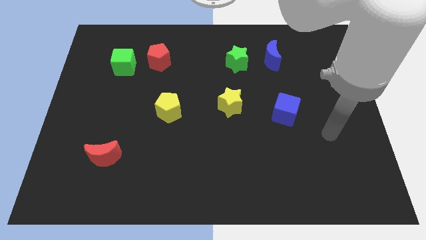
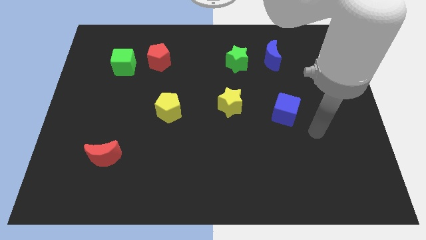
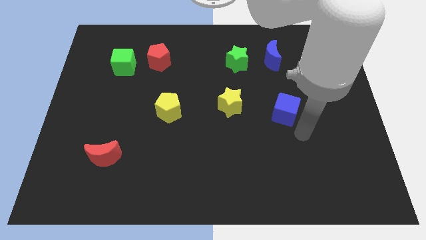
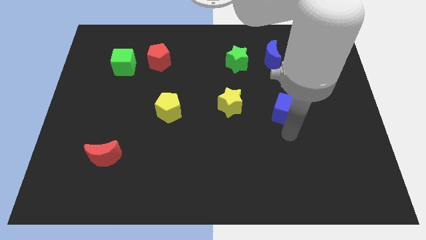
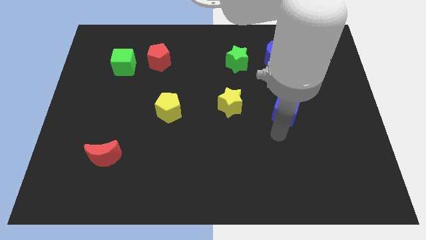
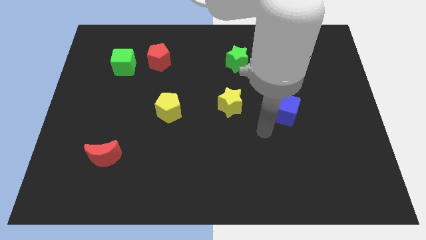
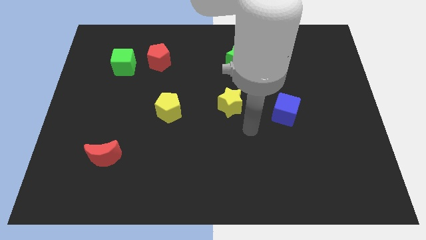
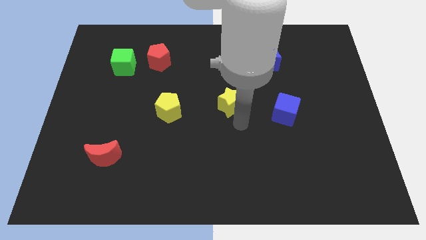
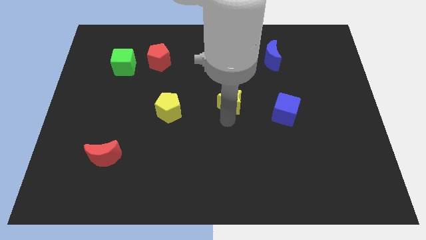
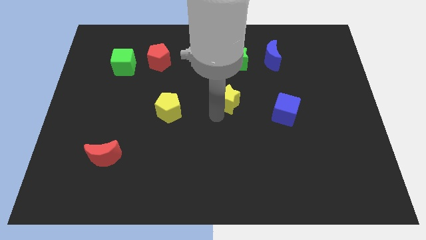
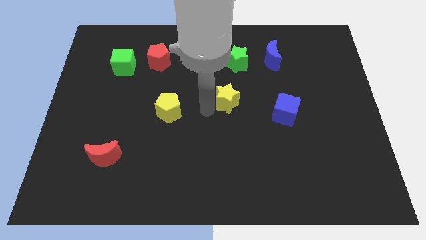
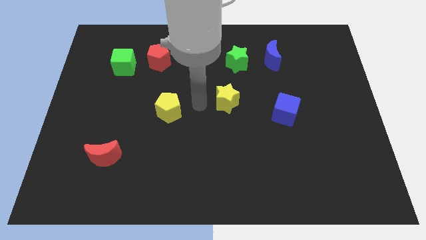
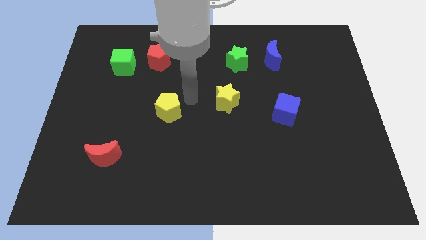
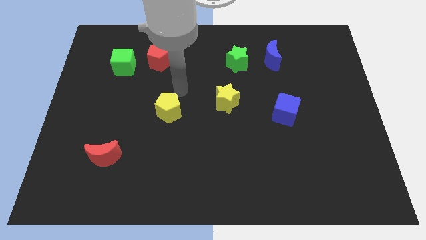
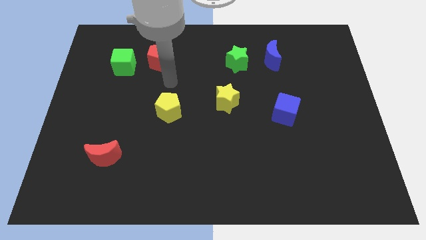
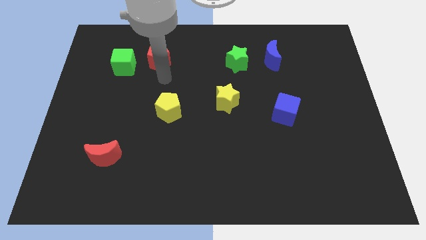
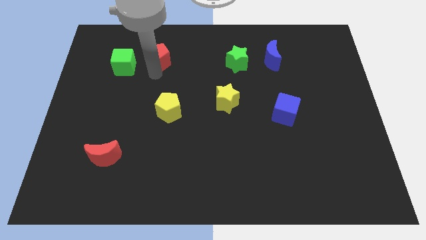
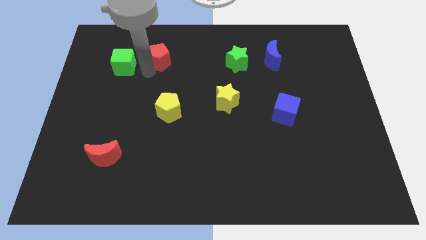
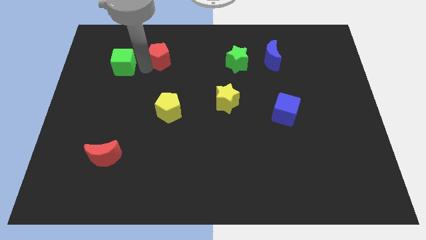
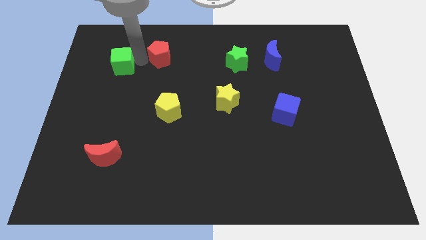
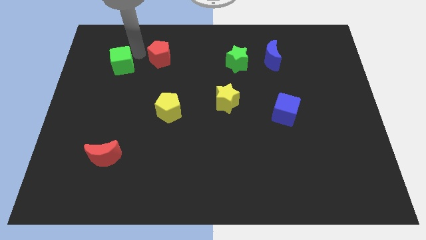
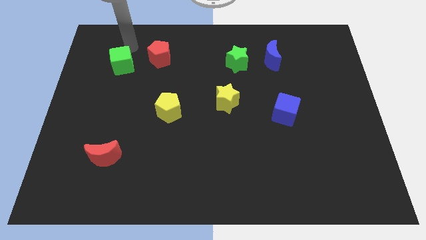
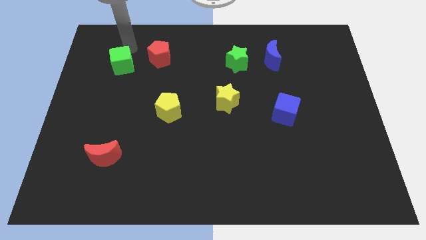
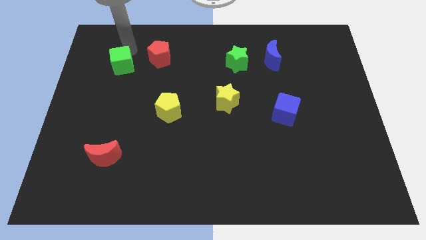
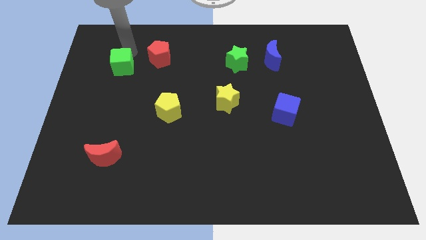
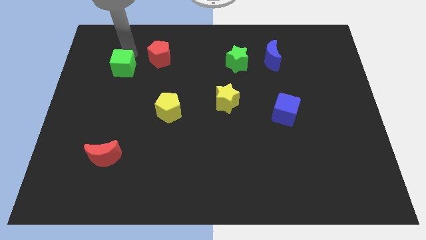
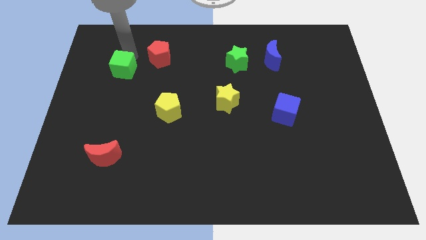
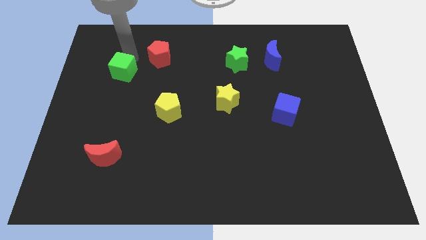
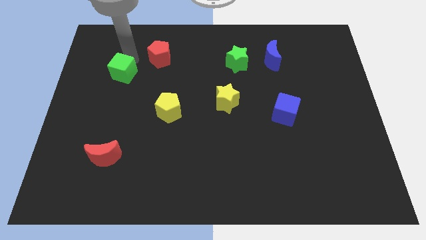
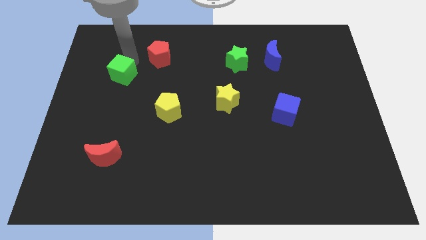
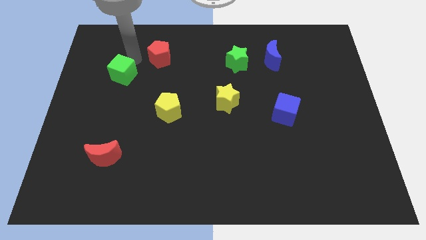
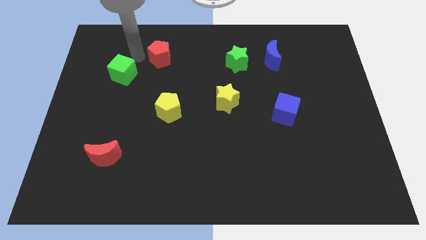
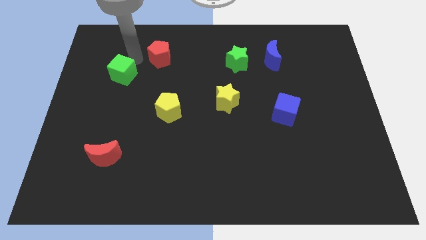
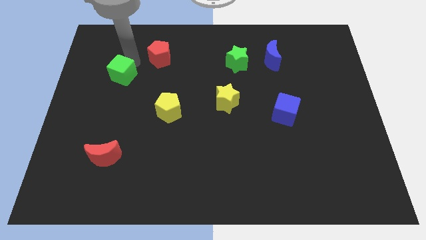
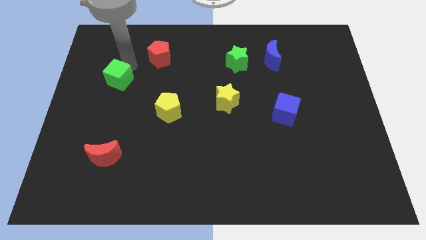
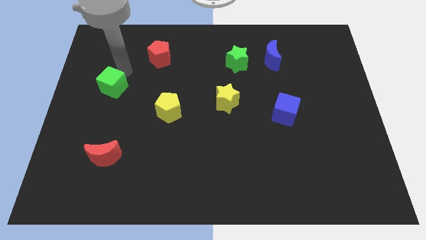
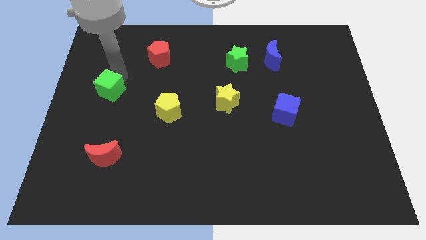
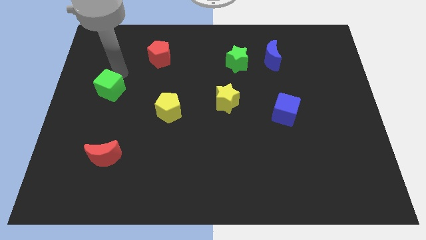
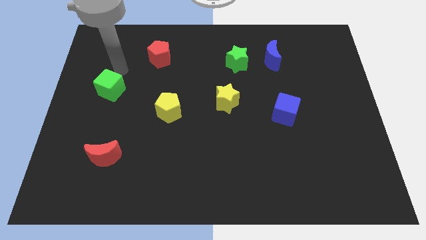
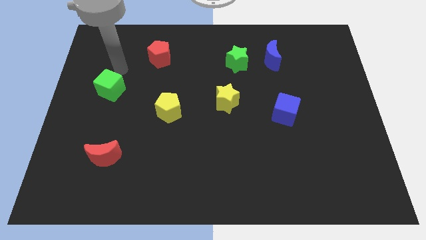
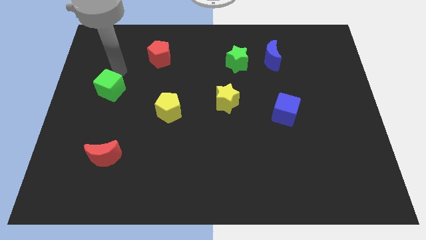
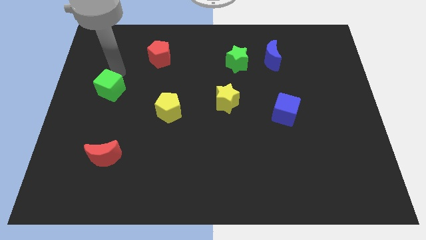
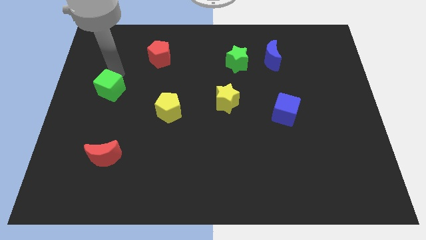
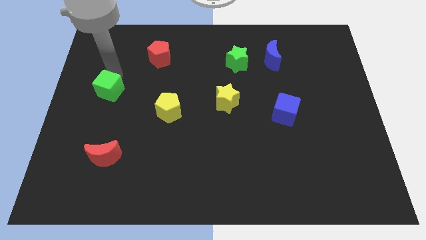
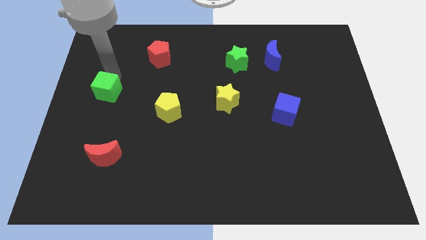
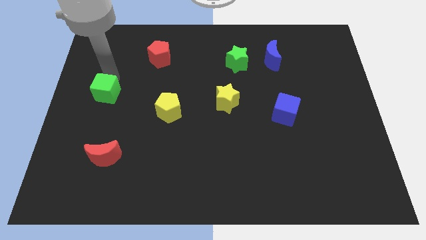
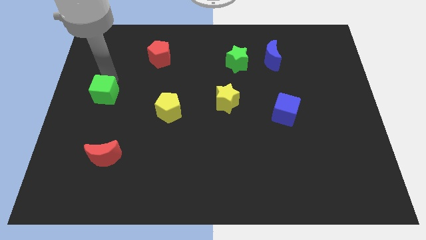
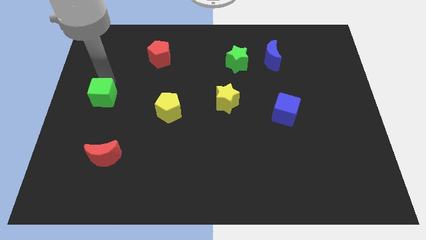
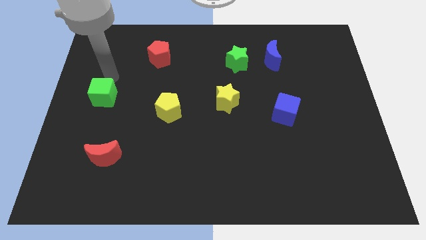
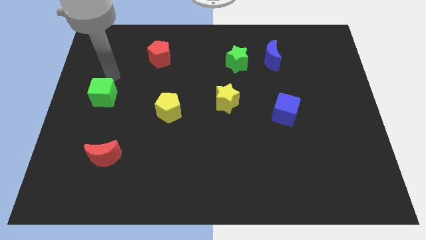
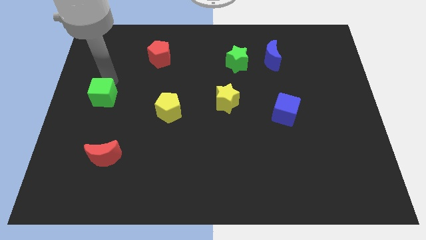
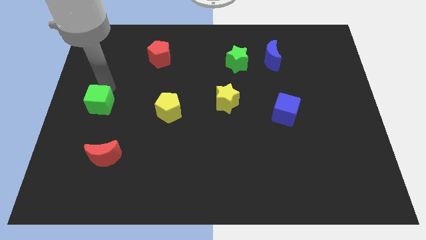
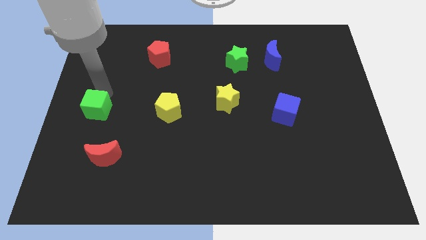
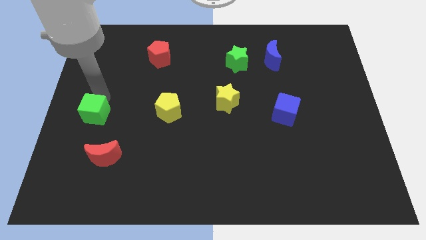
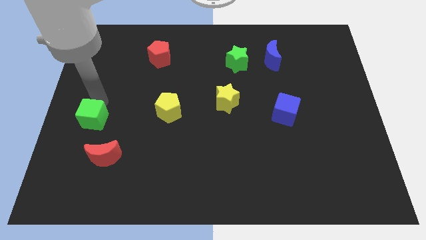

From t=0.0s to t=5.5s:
slide the green cube to the top left side of the red moon
